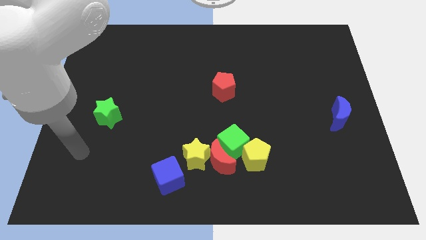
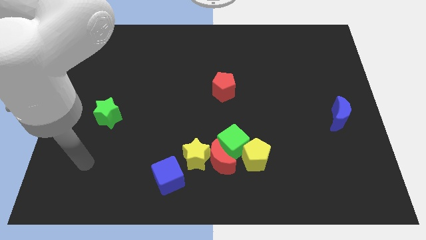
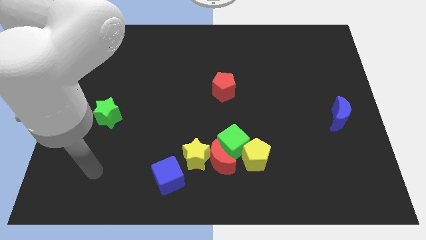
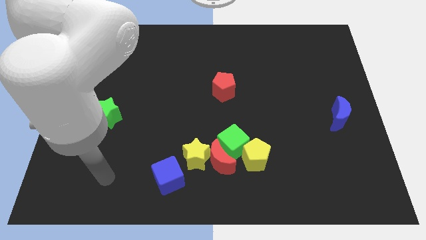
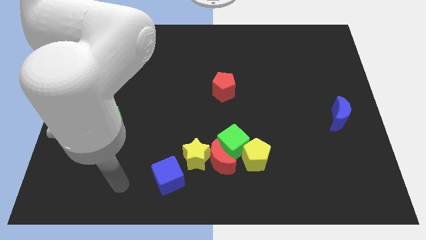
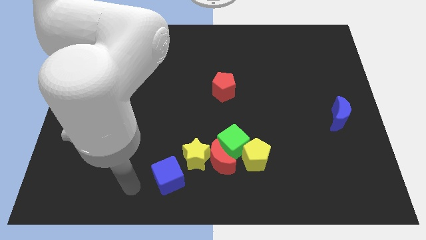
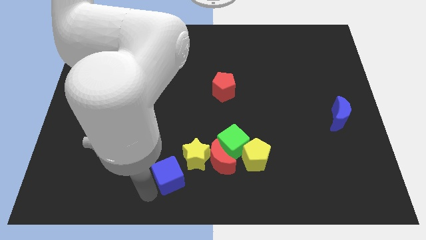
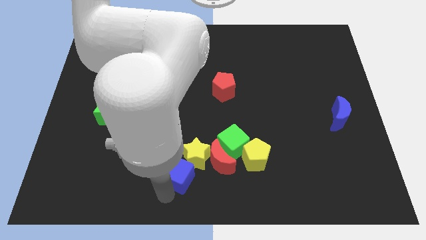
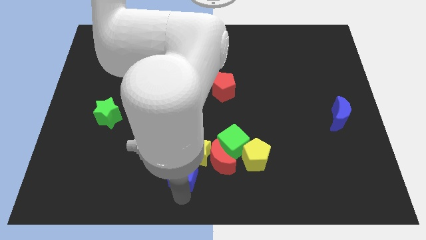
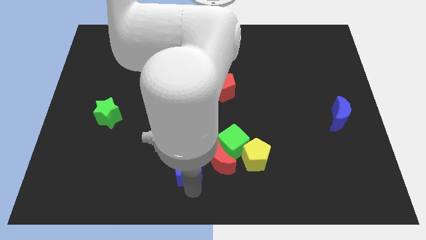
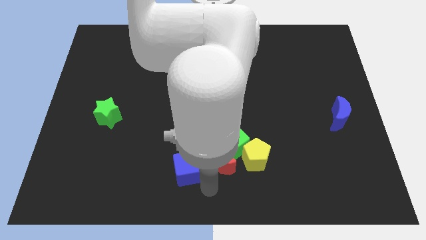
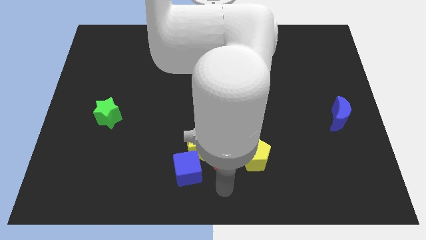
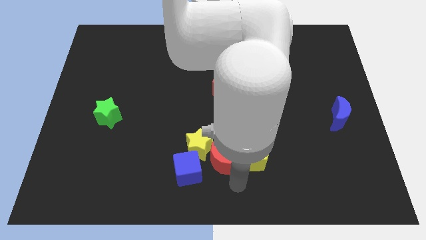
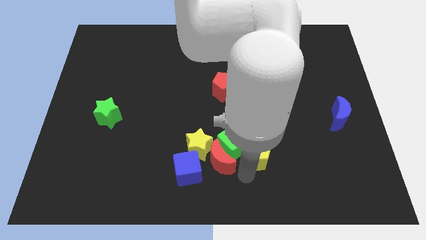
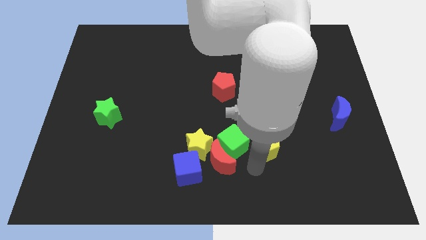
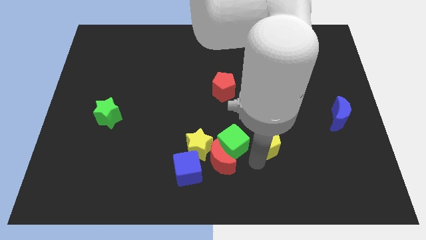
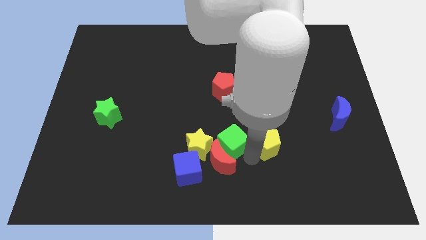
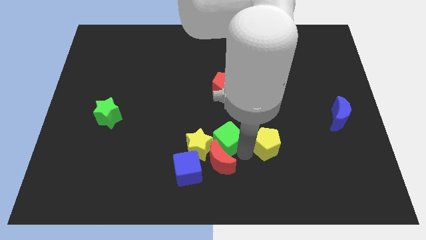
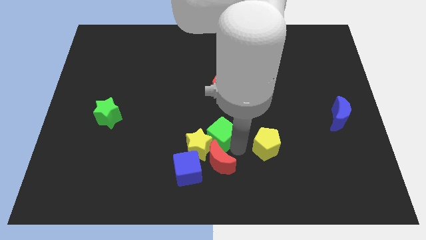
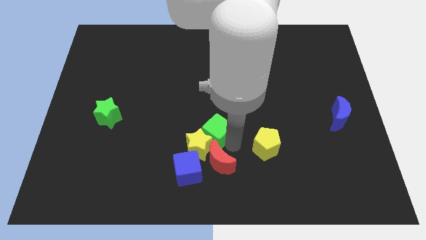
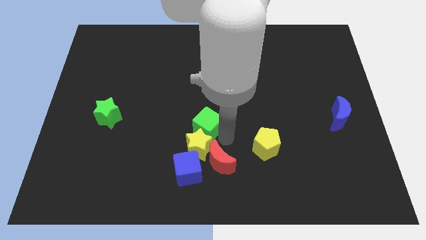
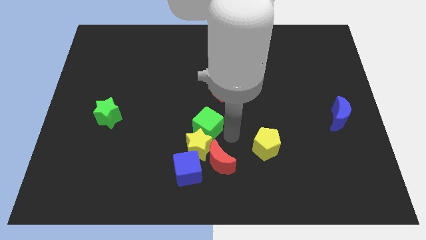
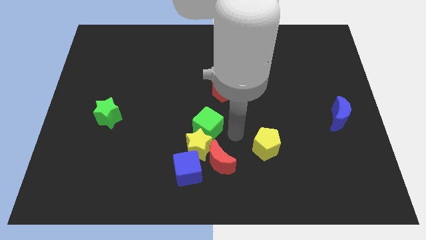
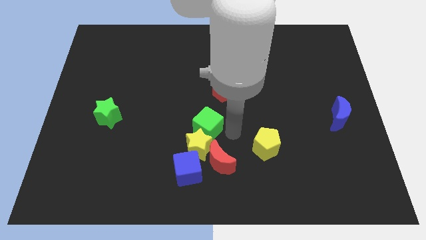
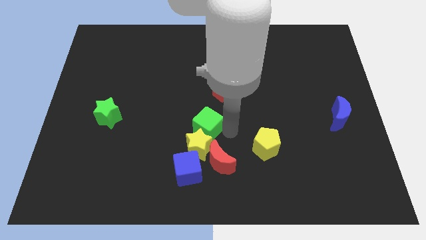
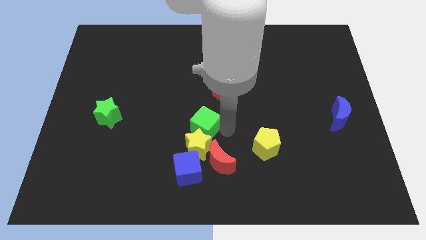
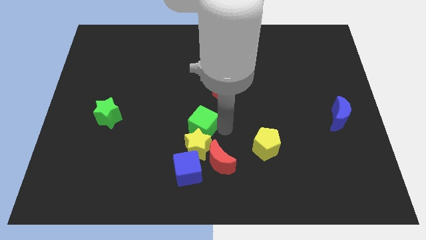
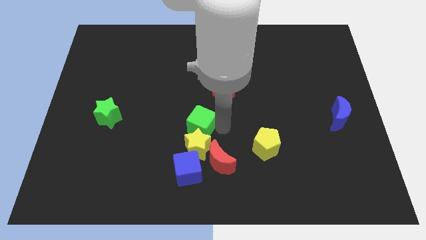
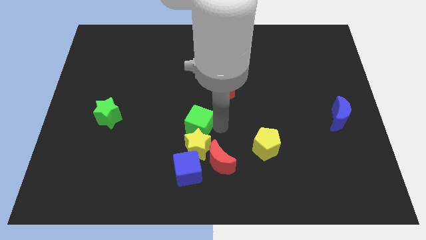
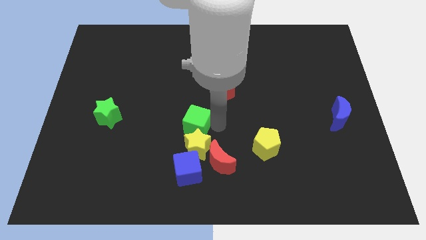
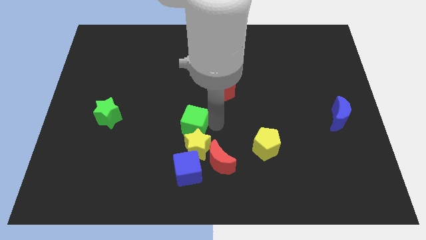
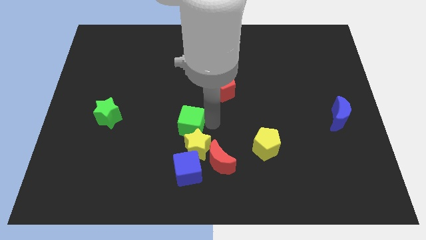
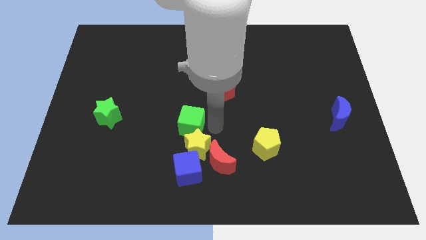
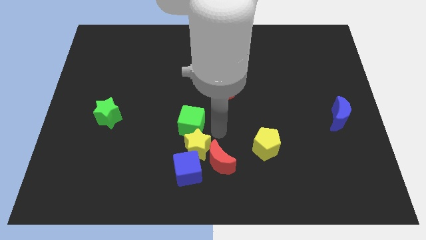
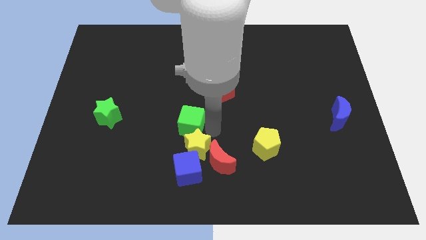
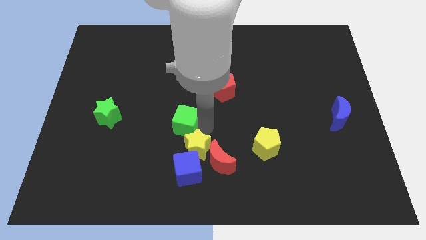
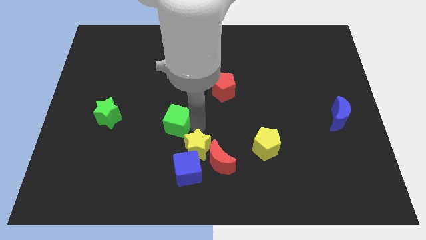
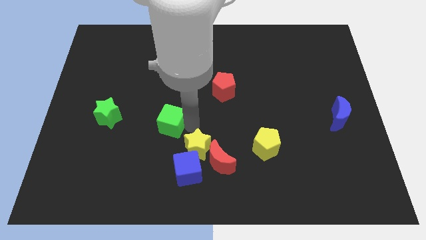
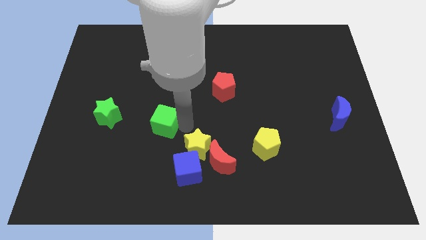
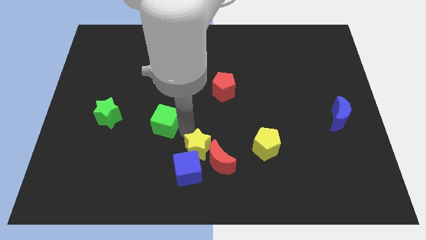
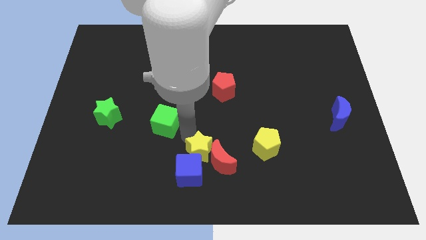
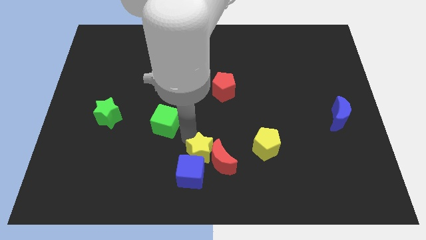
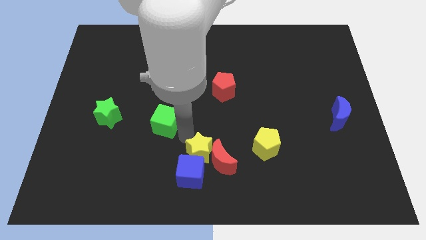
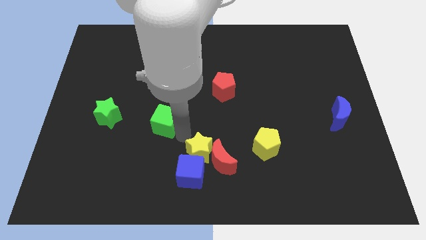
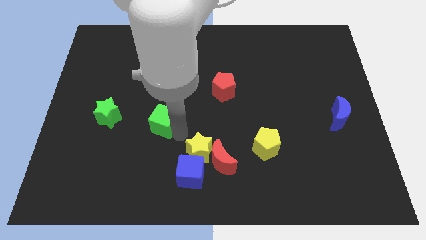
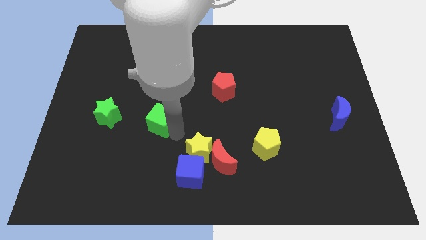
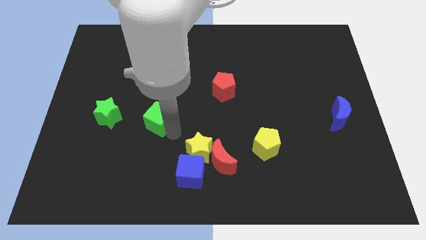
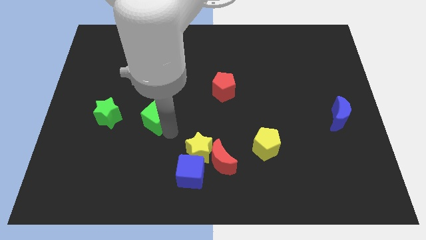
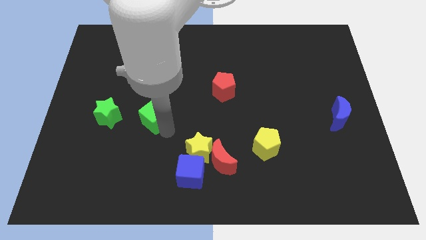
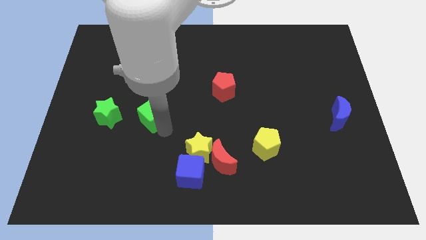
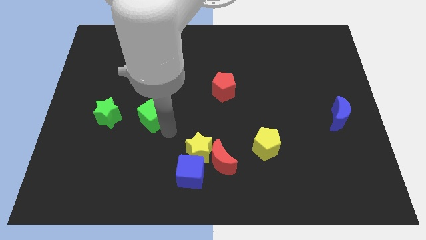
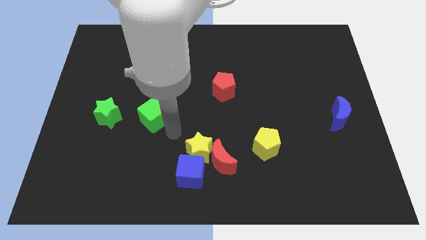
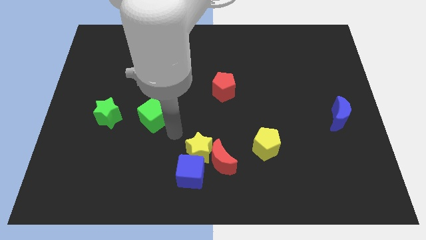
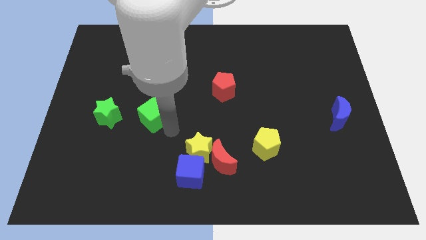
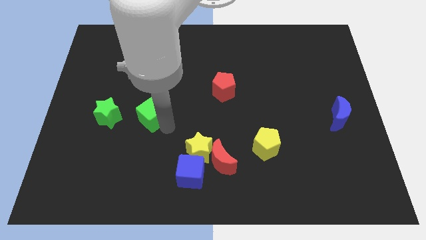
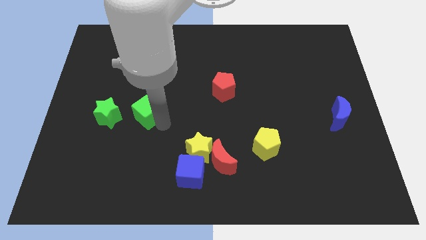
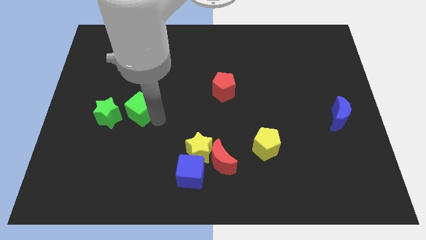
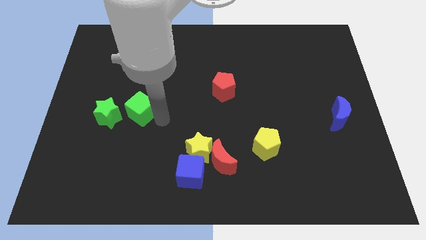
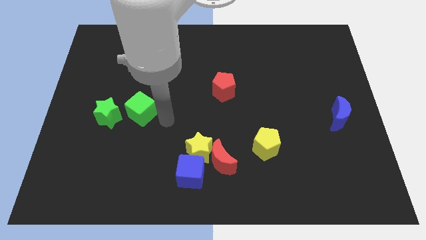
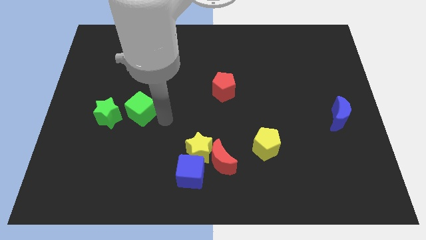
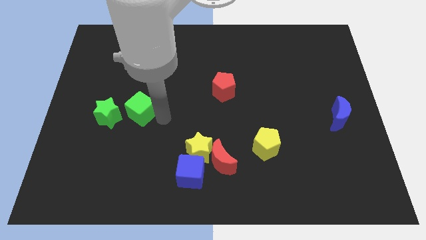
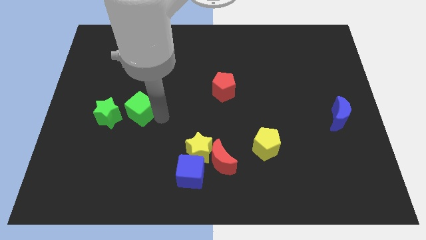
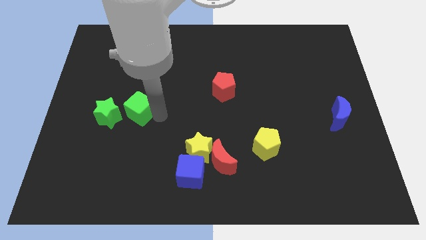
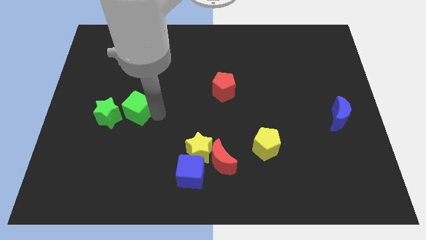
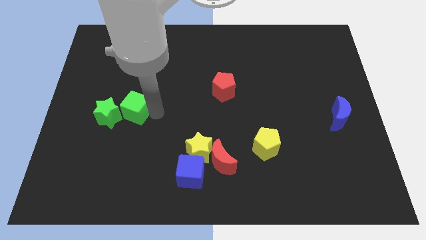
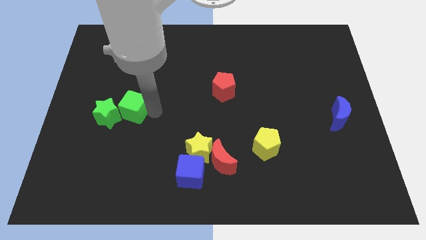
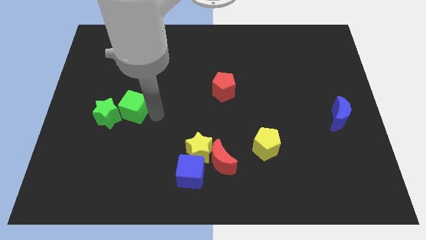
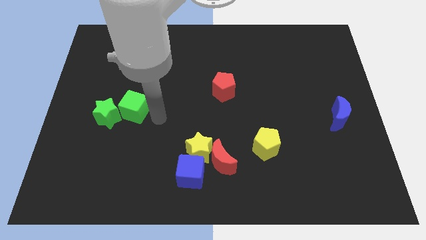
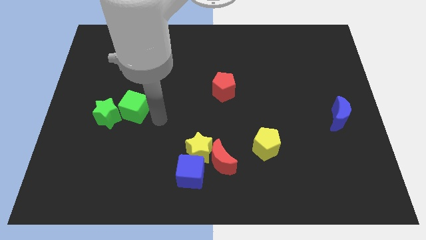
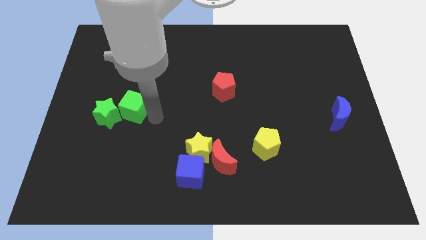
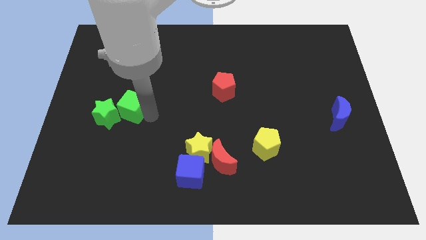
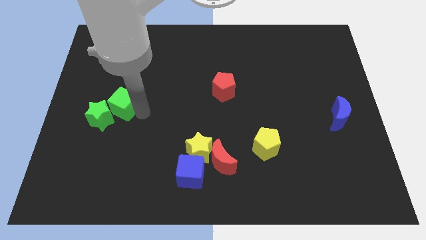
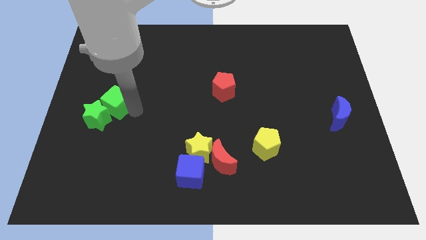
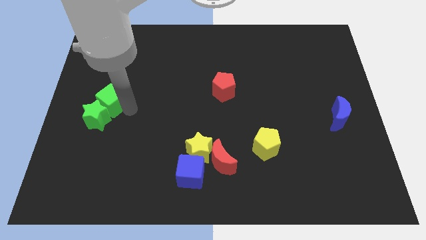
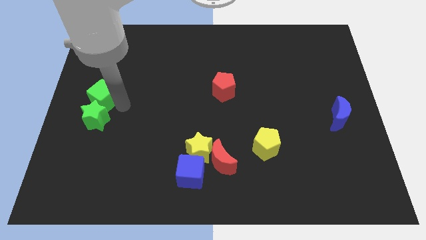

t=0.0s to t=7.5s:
push the green cube to the center left
